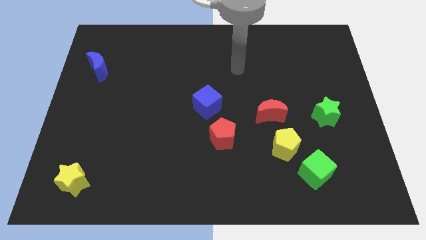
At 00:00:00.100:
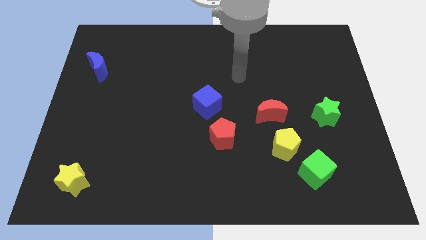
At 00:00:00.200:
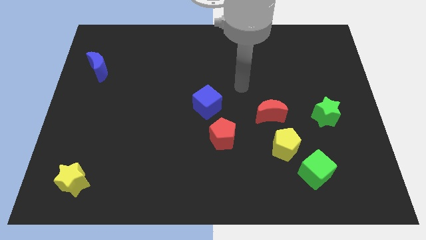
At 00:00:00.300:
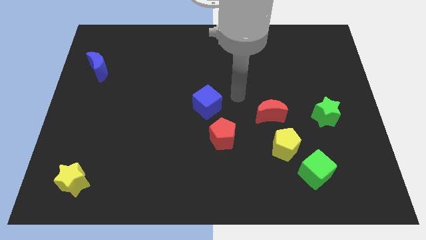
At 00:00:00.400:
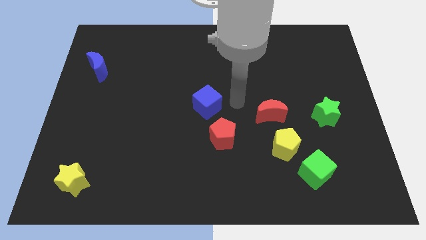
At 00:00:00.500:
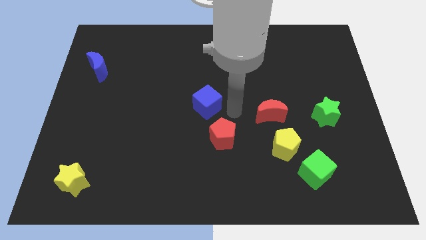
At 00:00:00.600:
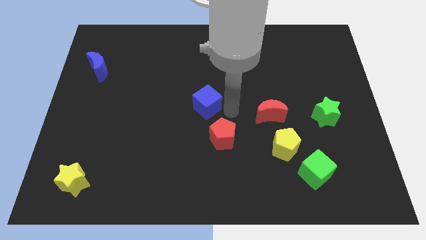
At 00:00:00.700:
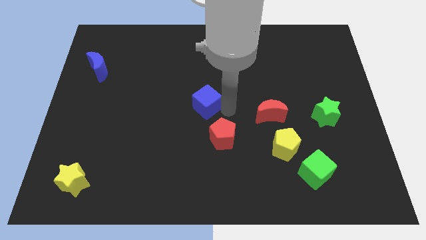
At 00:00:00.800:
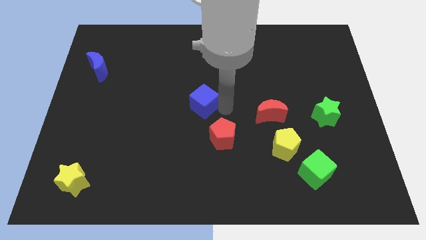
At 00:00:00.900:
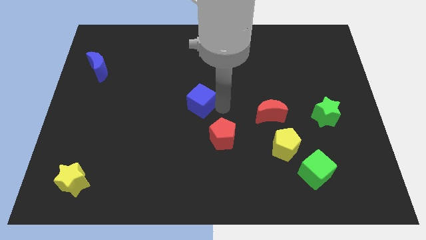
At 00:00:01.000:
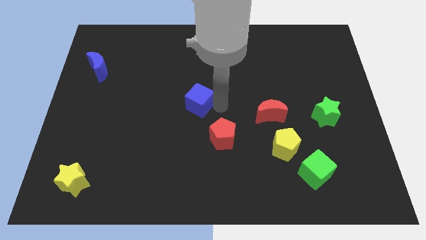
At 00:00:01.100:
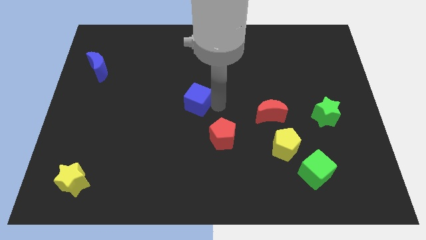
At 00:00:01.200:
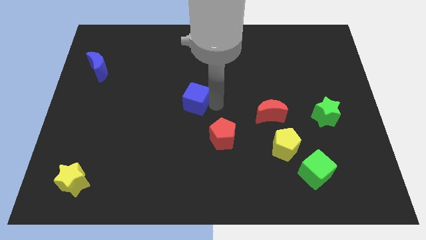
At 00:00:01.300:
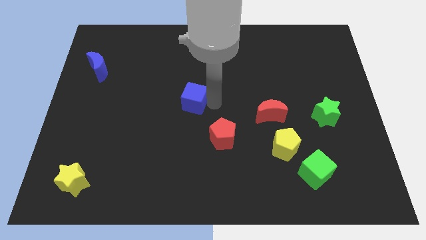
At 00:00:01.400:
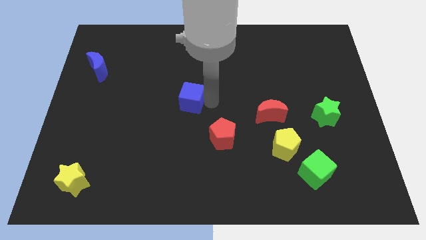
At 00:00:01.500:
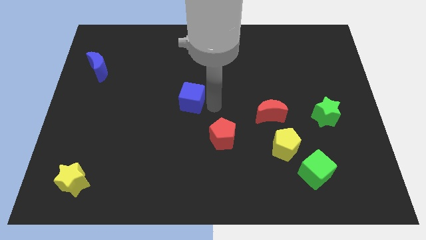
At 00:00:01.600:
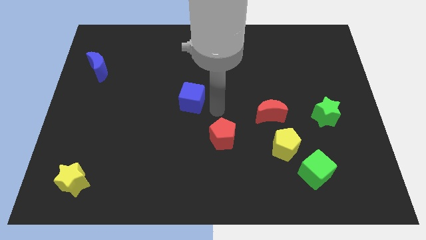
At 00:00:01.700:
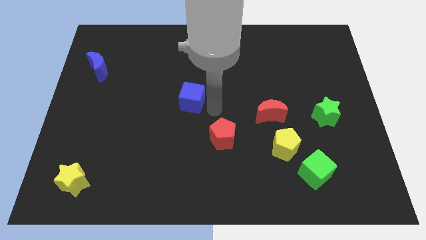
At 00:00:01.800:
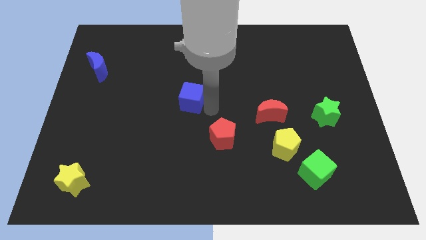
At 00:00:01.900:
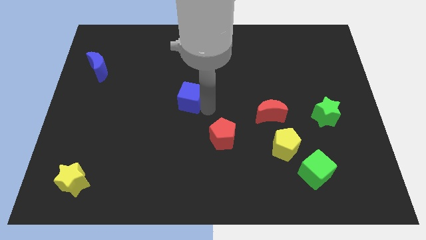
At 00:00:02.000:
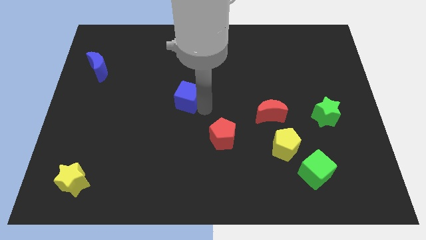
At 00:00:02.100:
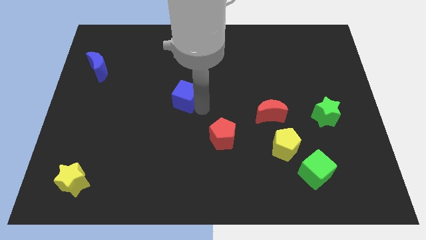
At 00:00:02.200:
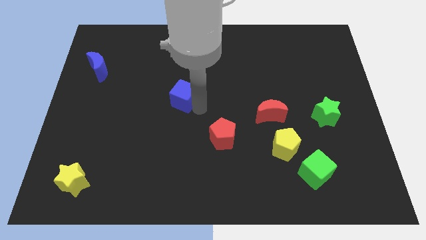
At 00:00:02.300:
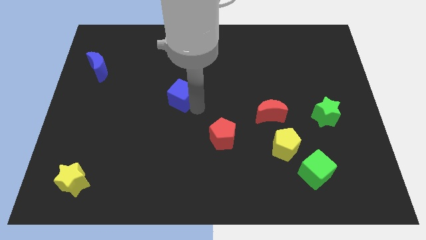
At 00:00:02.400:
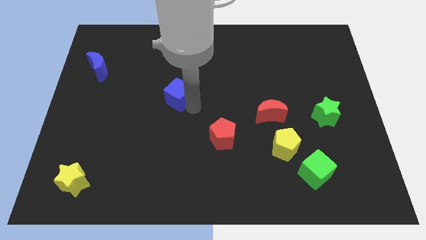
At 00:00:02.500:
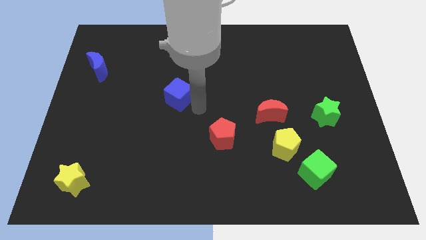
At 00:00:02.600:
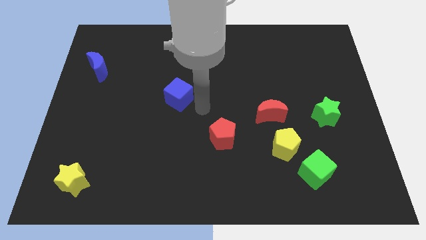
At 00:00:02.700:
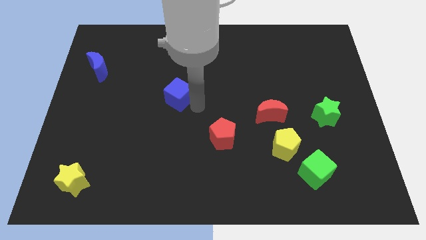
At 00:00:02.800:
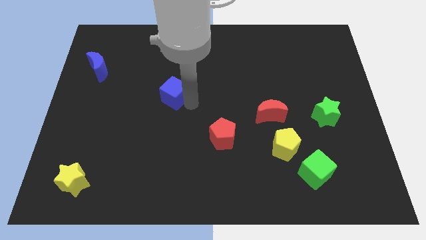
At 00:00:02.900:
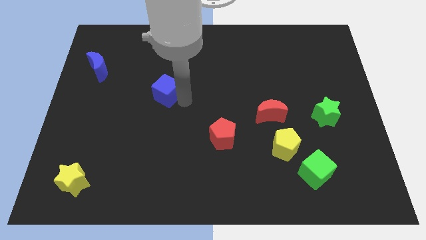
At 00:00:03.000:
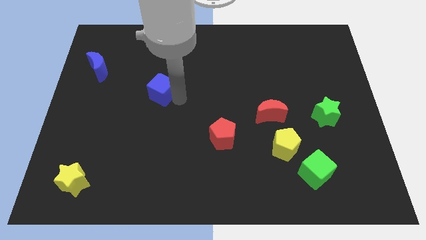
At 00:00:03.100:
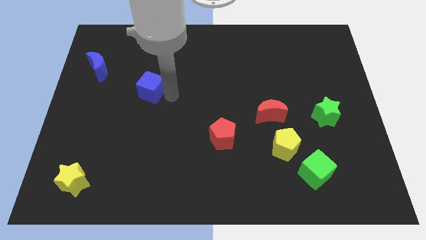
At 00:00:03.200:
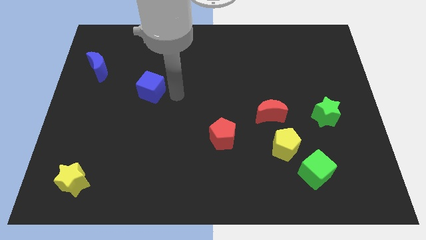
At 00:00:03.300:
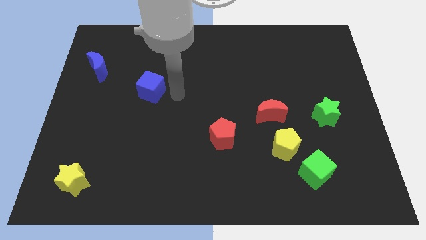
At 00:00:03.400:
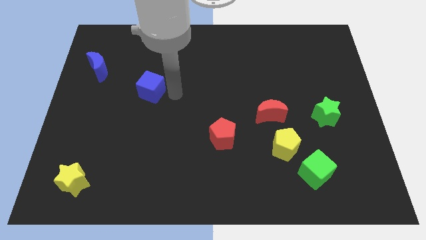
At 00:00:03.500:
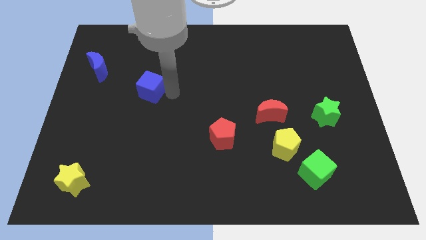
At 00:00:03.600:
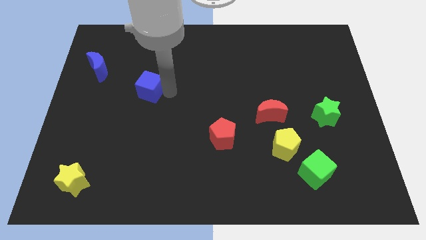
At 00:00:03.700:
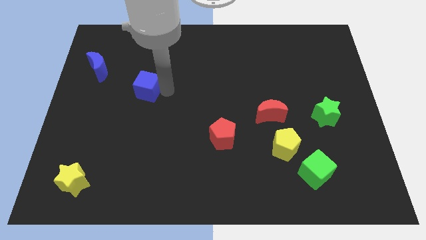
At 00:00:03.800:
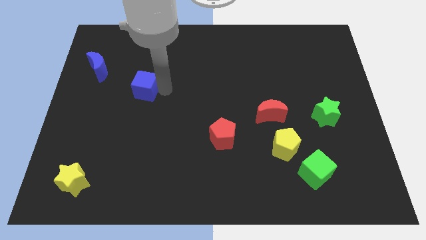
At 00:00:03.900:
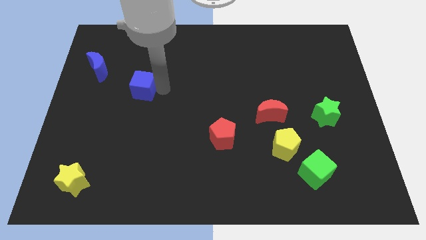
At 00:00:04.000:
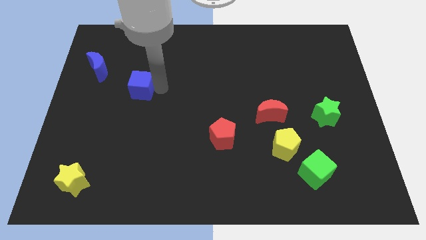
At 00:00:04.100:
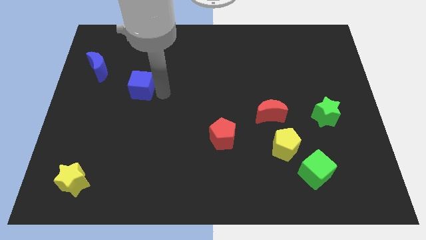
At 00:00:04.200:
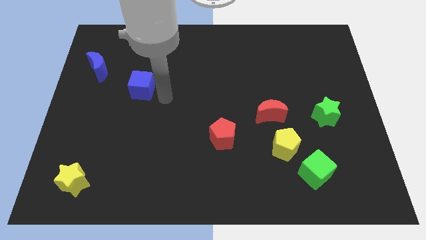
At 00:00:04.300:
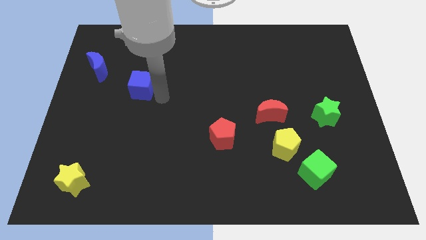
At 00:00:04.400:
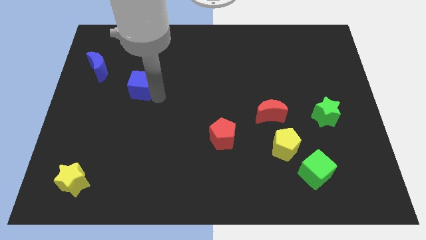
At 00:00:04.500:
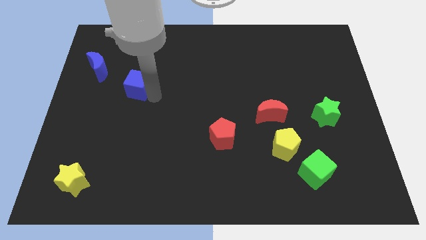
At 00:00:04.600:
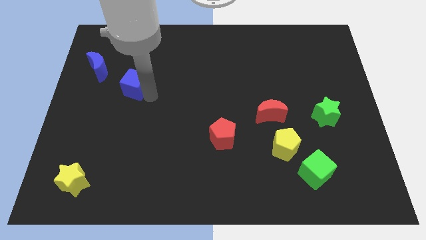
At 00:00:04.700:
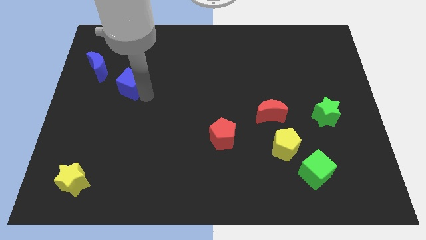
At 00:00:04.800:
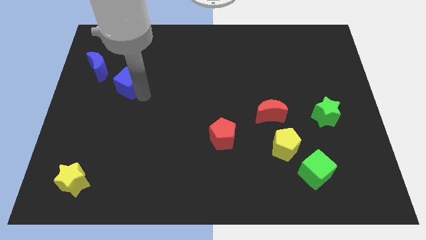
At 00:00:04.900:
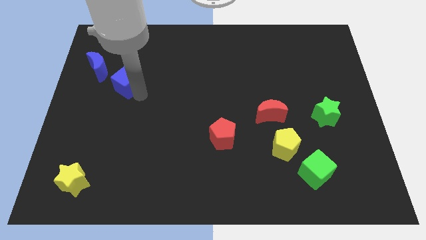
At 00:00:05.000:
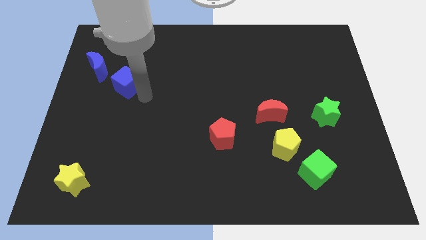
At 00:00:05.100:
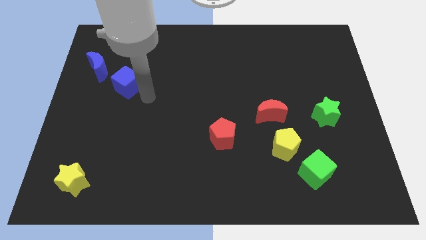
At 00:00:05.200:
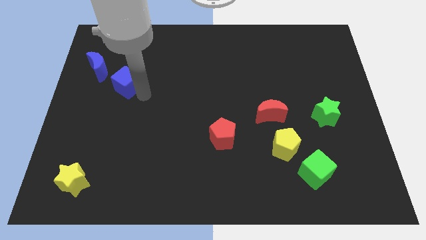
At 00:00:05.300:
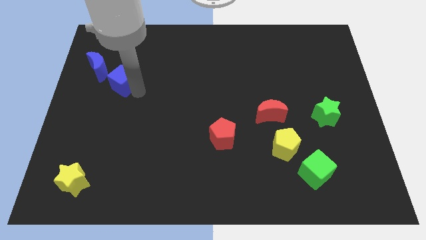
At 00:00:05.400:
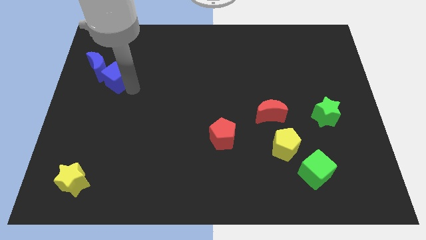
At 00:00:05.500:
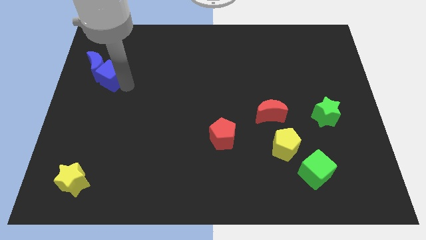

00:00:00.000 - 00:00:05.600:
slide the blue cube next to the blue moon

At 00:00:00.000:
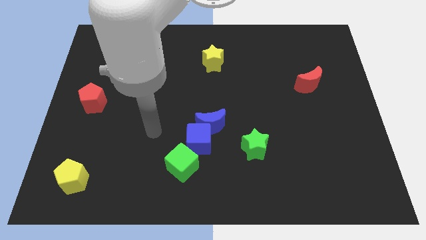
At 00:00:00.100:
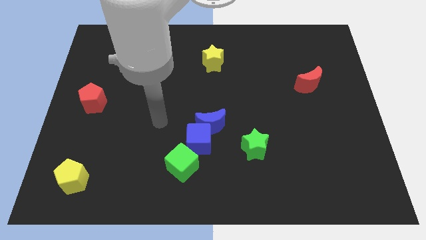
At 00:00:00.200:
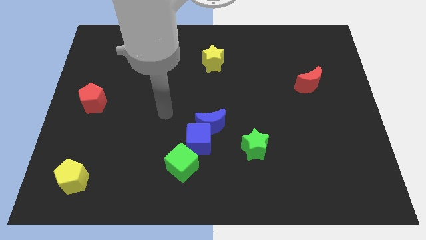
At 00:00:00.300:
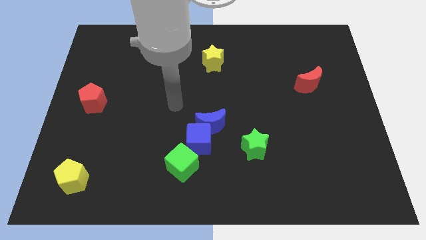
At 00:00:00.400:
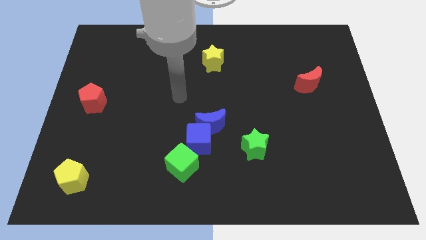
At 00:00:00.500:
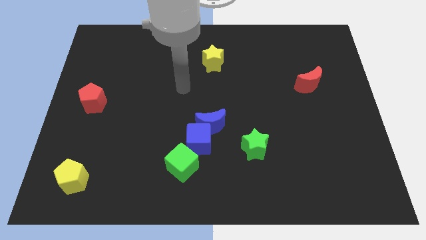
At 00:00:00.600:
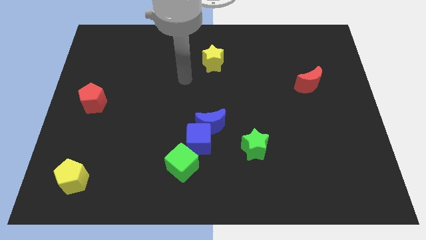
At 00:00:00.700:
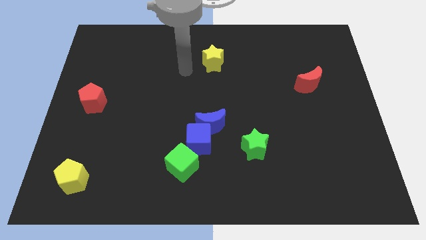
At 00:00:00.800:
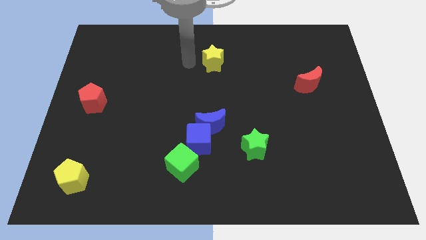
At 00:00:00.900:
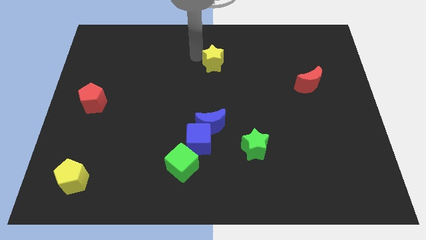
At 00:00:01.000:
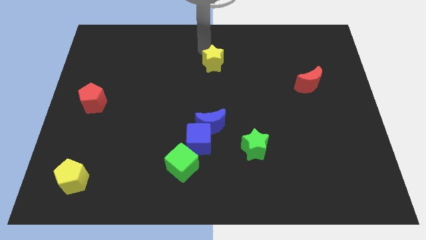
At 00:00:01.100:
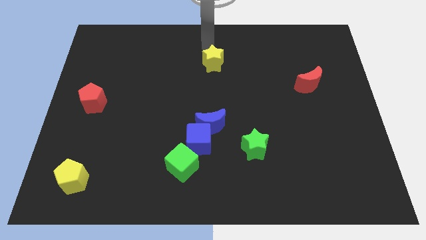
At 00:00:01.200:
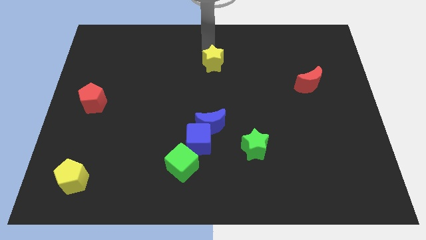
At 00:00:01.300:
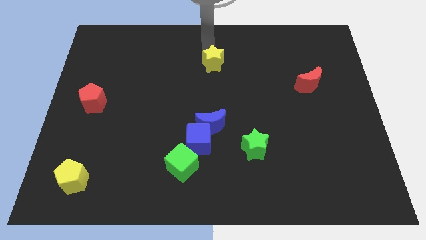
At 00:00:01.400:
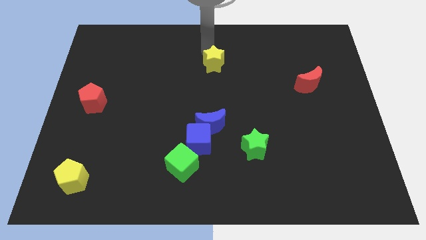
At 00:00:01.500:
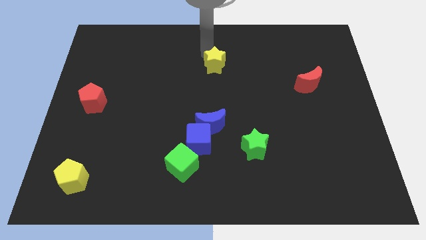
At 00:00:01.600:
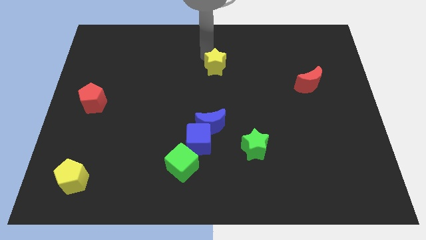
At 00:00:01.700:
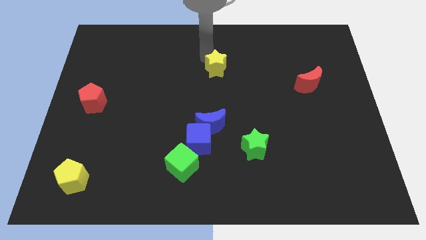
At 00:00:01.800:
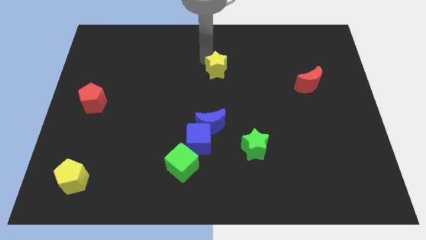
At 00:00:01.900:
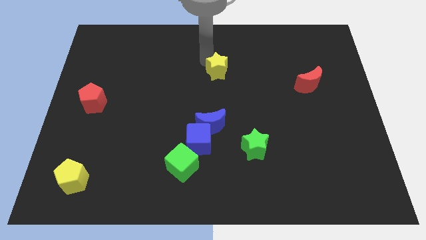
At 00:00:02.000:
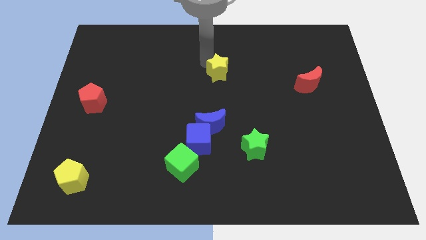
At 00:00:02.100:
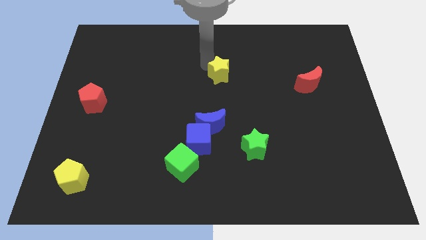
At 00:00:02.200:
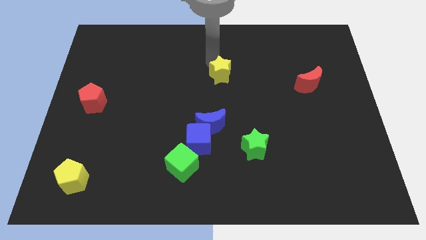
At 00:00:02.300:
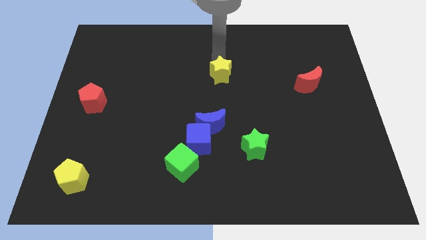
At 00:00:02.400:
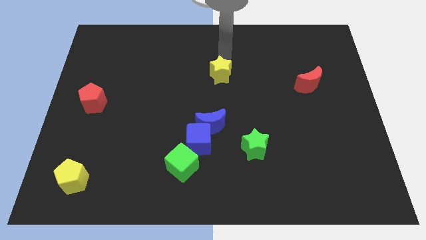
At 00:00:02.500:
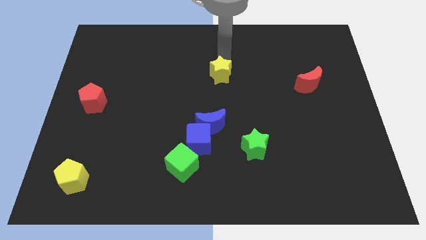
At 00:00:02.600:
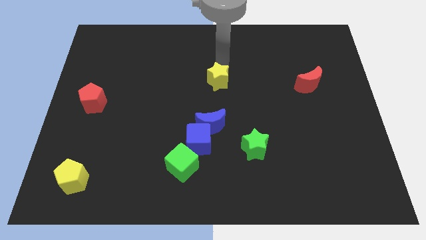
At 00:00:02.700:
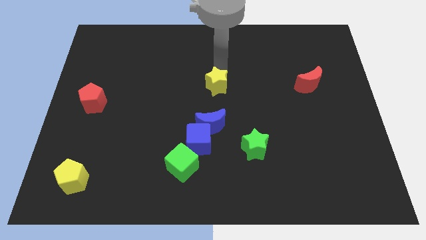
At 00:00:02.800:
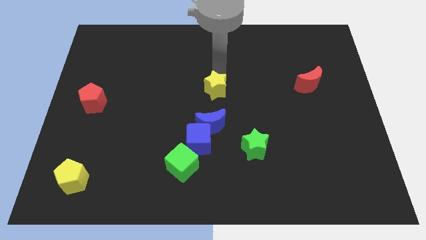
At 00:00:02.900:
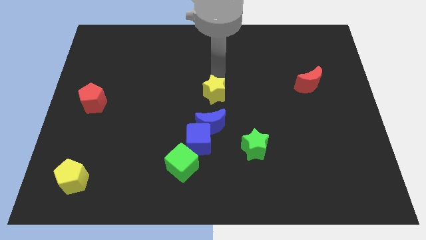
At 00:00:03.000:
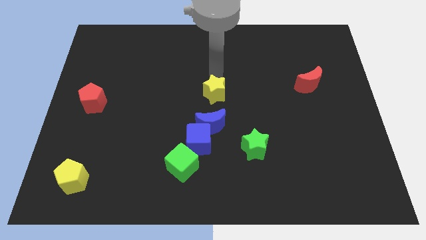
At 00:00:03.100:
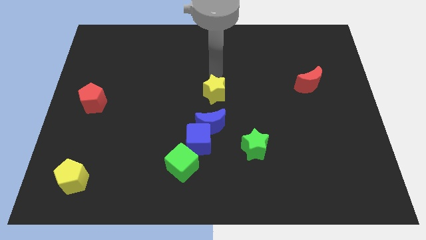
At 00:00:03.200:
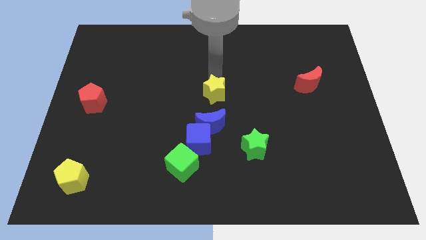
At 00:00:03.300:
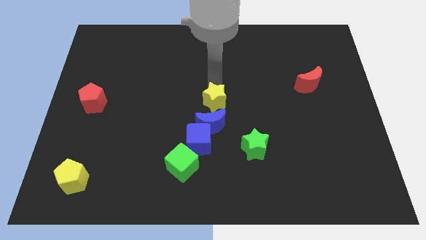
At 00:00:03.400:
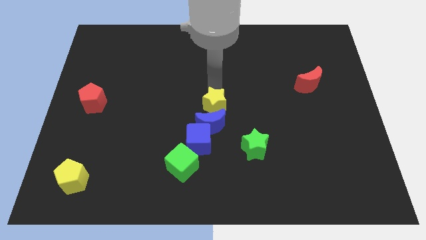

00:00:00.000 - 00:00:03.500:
put the yellow star close to the blue moon
